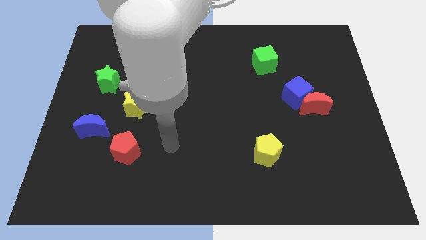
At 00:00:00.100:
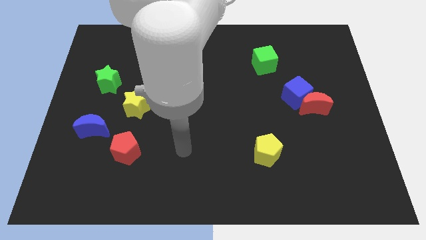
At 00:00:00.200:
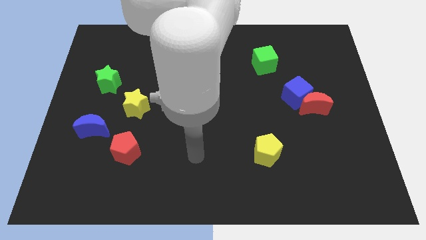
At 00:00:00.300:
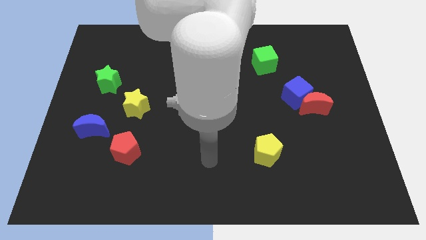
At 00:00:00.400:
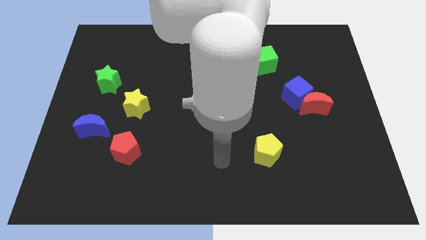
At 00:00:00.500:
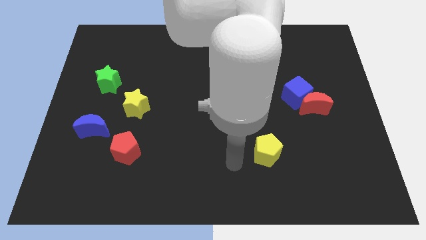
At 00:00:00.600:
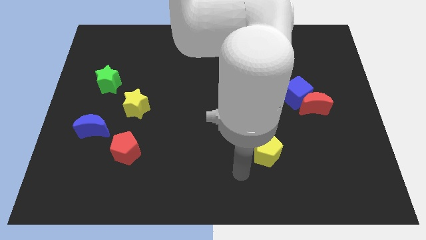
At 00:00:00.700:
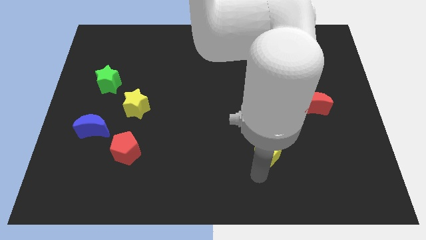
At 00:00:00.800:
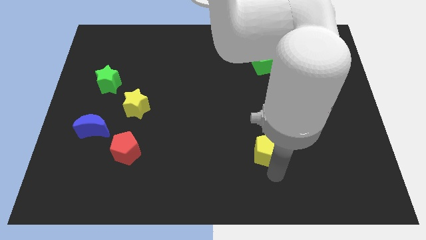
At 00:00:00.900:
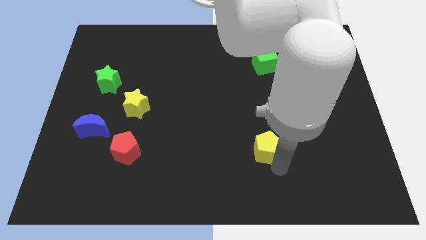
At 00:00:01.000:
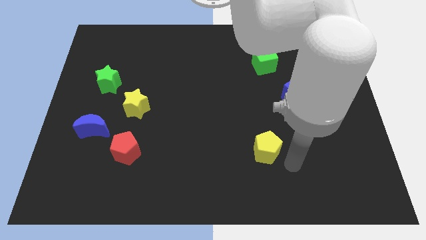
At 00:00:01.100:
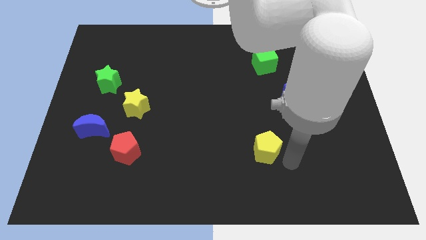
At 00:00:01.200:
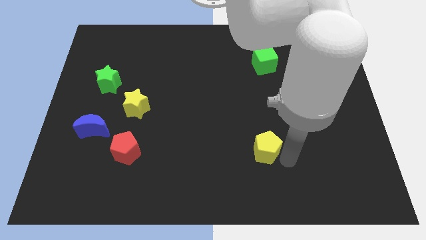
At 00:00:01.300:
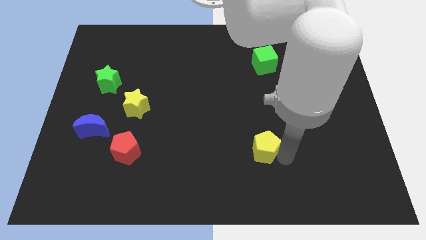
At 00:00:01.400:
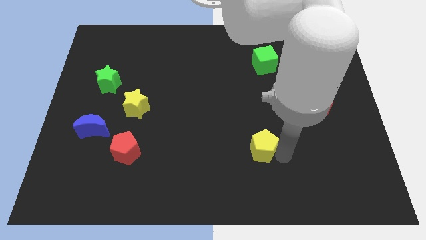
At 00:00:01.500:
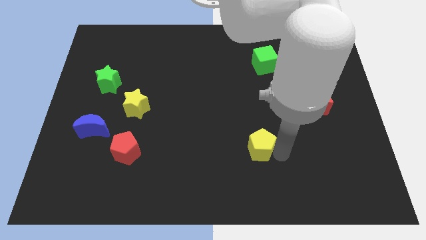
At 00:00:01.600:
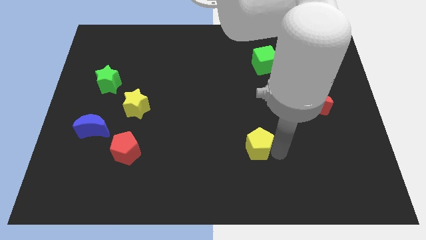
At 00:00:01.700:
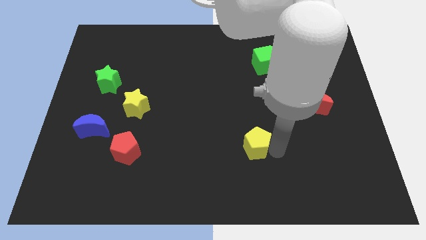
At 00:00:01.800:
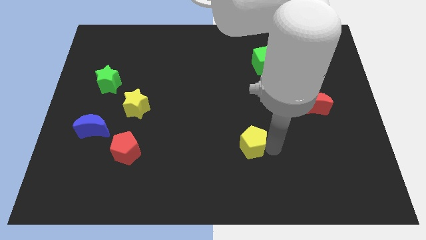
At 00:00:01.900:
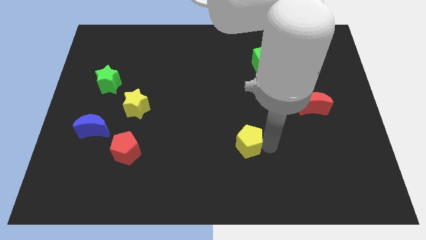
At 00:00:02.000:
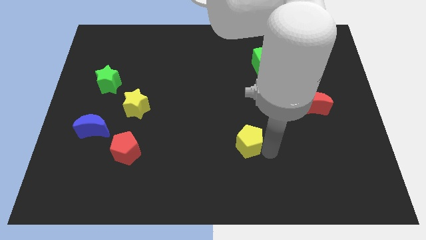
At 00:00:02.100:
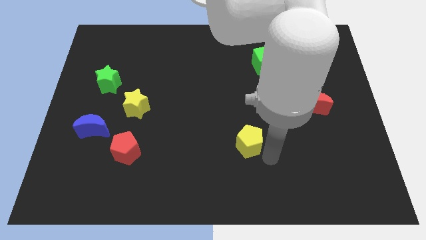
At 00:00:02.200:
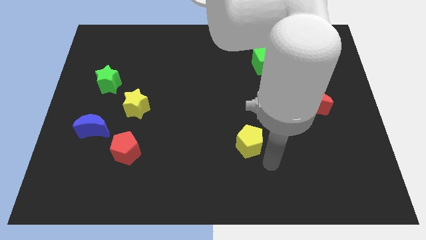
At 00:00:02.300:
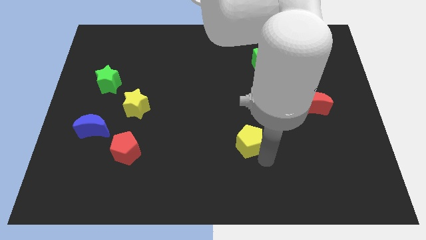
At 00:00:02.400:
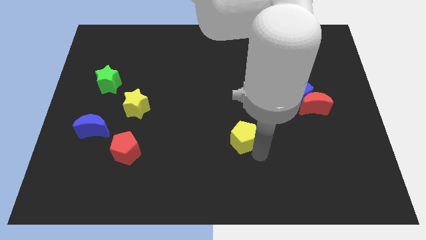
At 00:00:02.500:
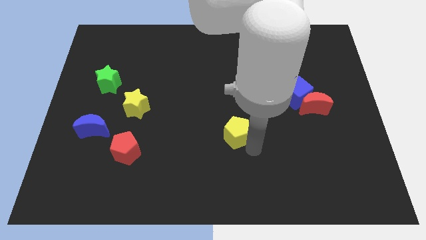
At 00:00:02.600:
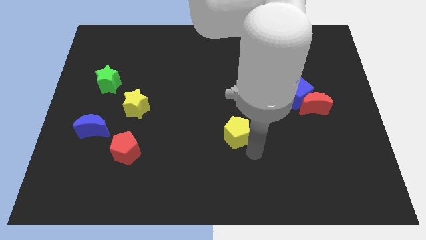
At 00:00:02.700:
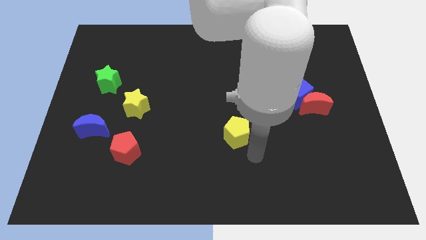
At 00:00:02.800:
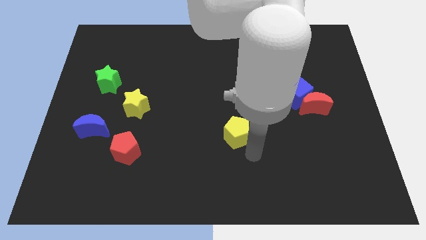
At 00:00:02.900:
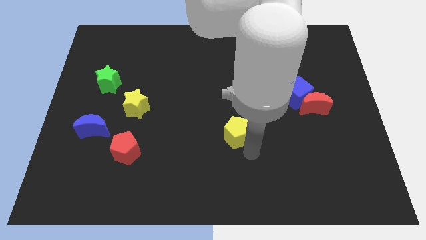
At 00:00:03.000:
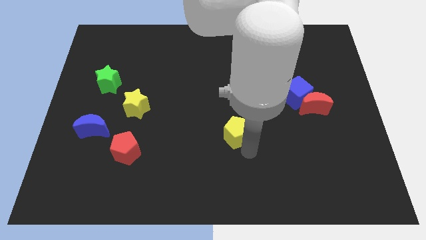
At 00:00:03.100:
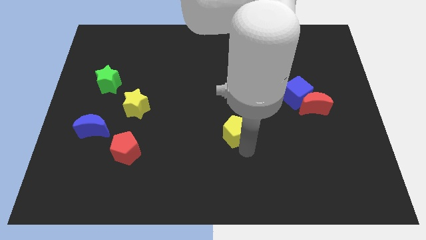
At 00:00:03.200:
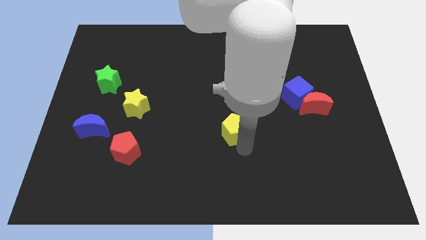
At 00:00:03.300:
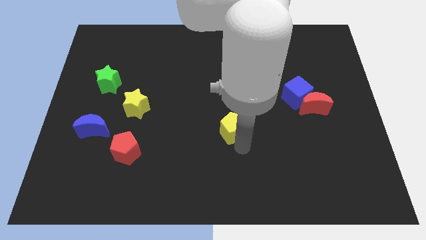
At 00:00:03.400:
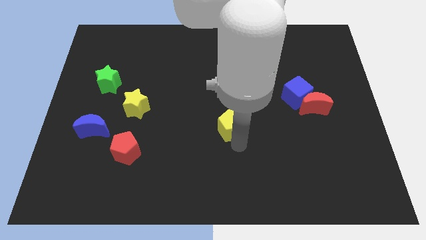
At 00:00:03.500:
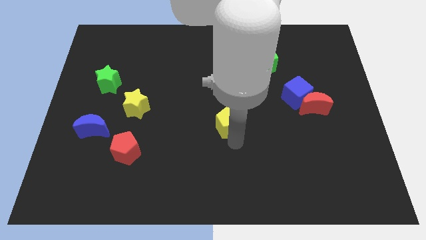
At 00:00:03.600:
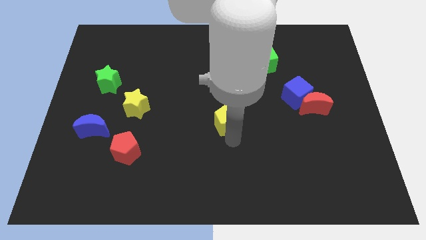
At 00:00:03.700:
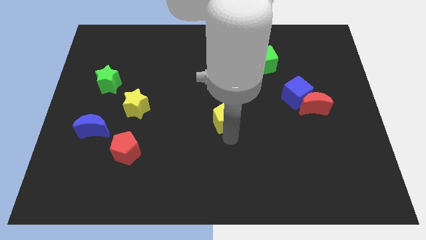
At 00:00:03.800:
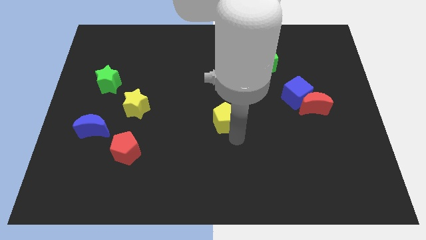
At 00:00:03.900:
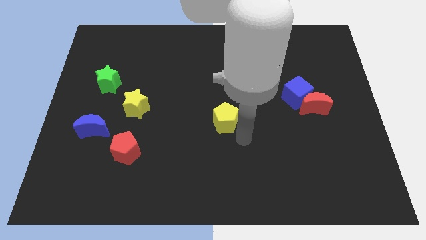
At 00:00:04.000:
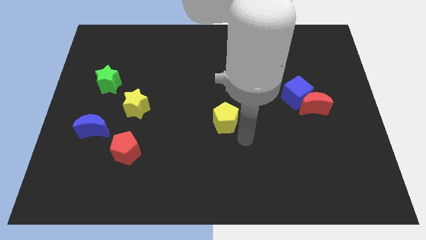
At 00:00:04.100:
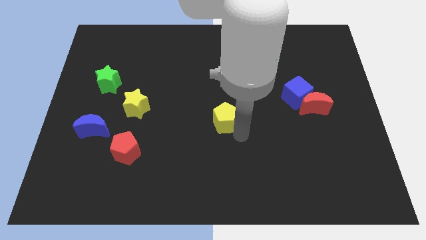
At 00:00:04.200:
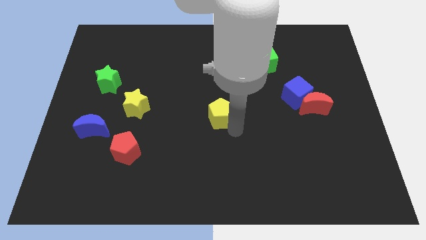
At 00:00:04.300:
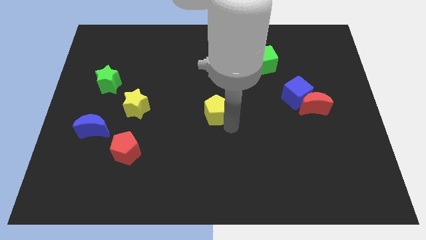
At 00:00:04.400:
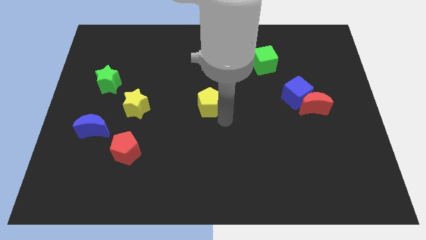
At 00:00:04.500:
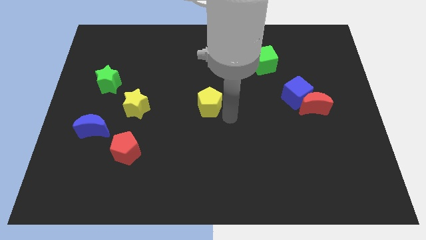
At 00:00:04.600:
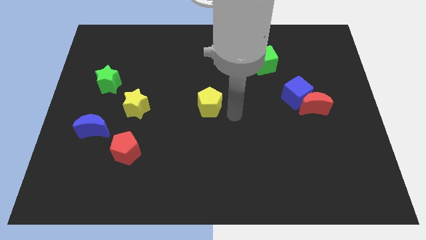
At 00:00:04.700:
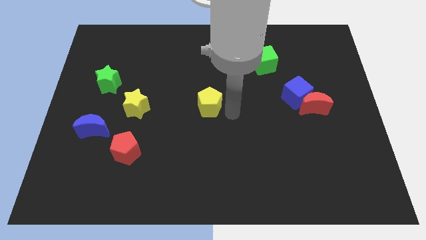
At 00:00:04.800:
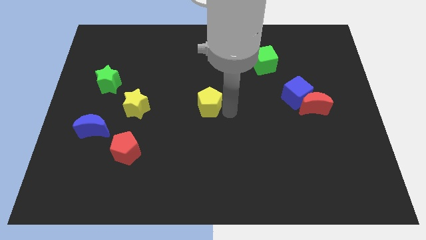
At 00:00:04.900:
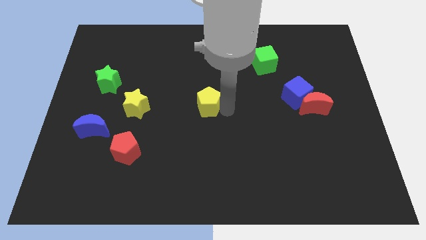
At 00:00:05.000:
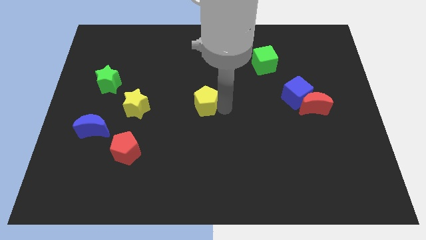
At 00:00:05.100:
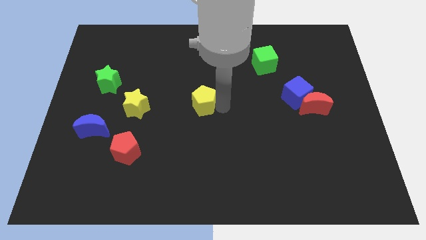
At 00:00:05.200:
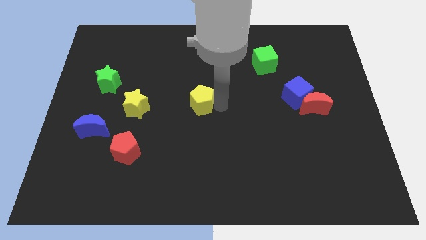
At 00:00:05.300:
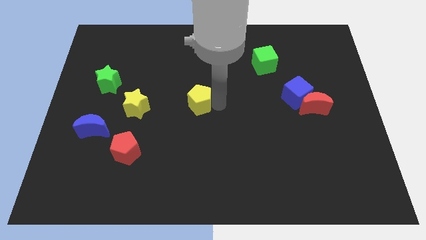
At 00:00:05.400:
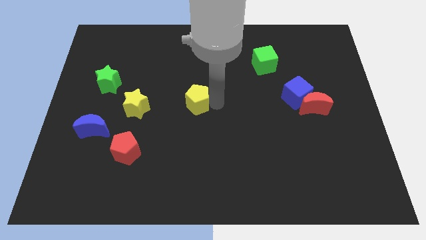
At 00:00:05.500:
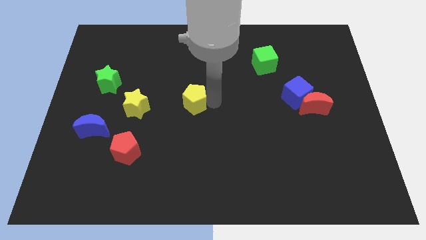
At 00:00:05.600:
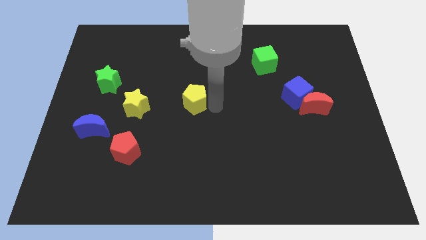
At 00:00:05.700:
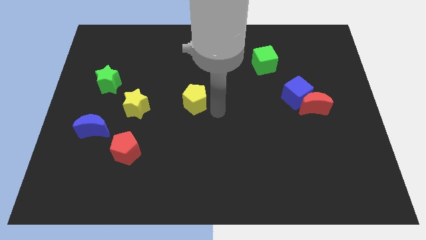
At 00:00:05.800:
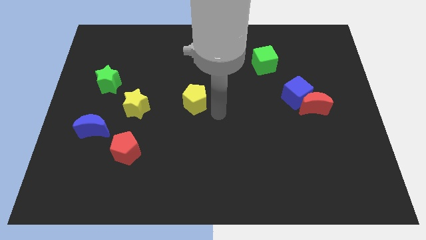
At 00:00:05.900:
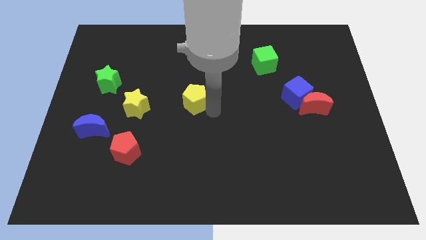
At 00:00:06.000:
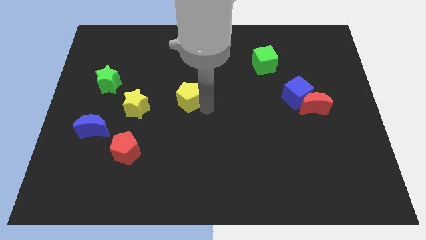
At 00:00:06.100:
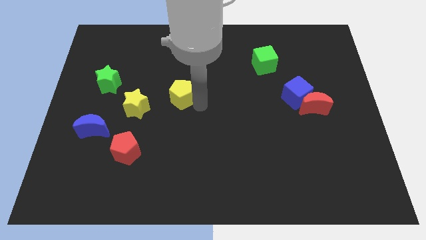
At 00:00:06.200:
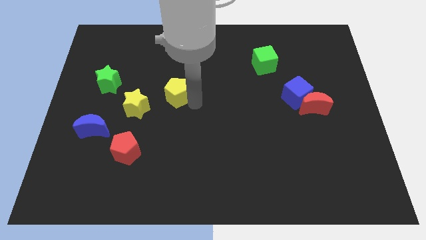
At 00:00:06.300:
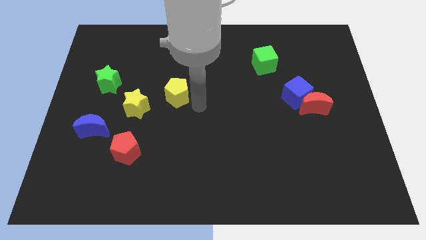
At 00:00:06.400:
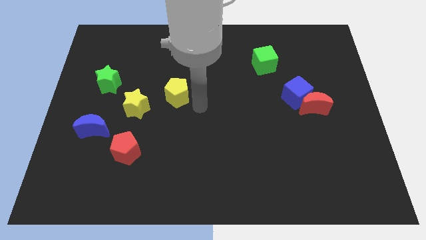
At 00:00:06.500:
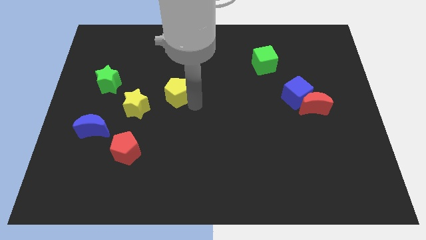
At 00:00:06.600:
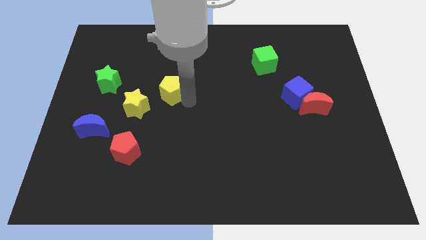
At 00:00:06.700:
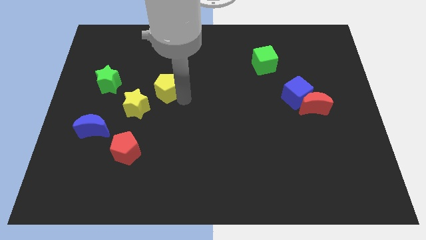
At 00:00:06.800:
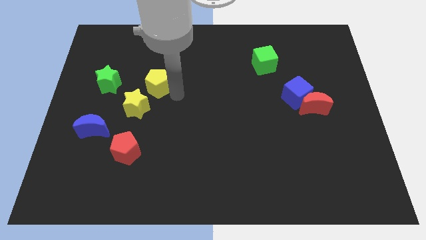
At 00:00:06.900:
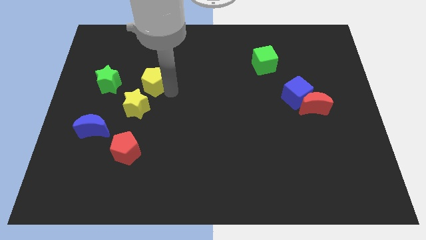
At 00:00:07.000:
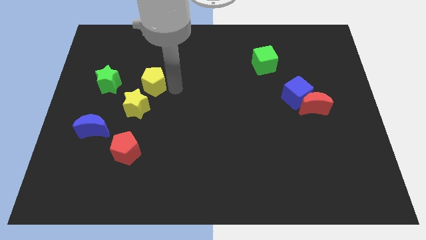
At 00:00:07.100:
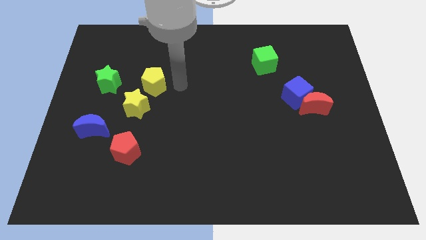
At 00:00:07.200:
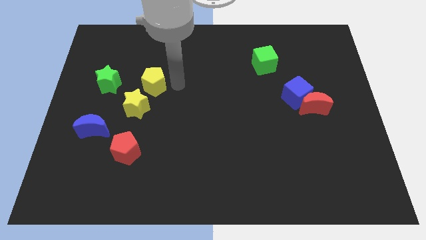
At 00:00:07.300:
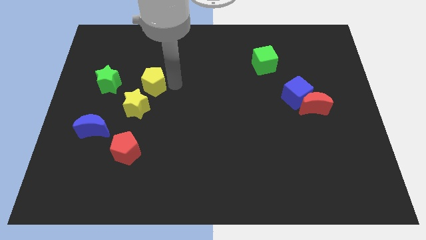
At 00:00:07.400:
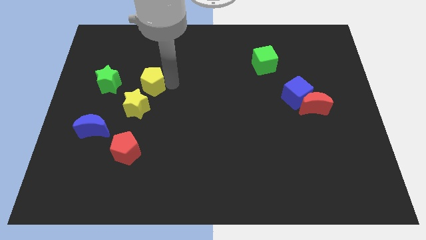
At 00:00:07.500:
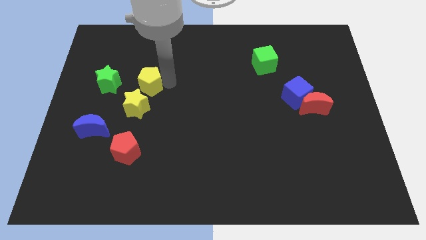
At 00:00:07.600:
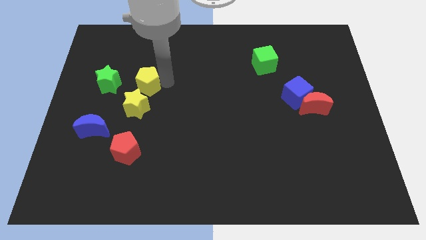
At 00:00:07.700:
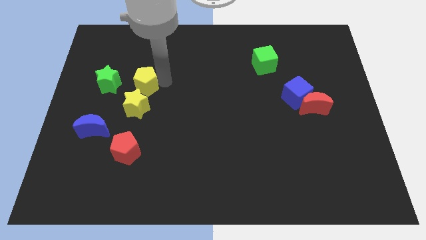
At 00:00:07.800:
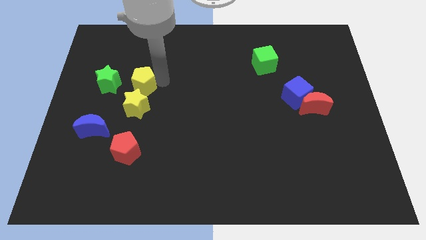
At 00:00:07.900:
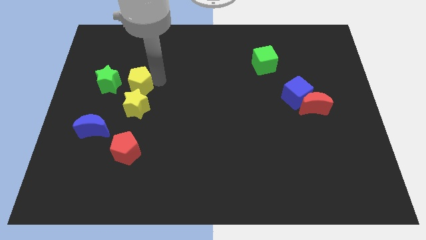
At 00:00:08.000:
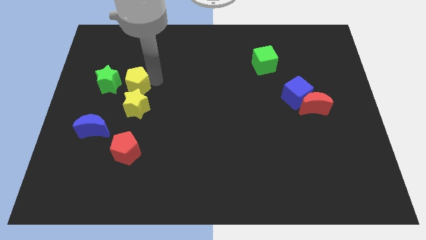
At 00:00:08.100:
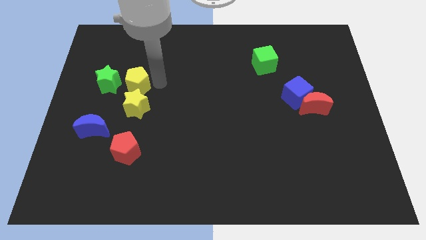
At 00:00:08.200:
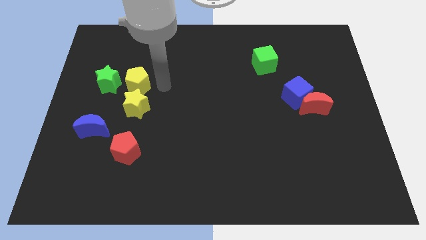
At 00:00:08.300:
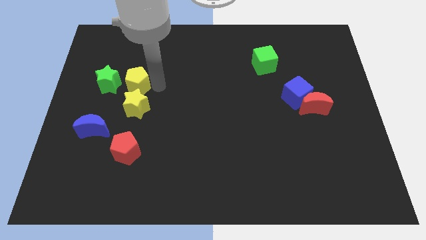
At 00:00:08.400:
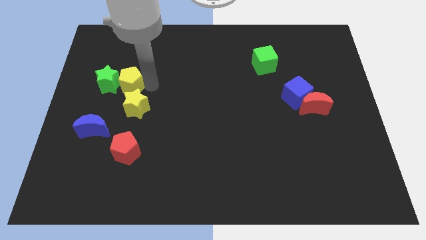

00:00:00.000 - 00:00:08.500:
slide the yellow pentagon close to the green star
